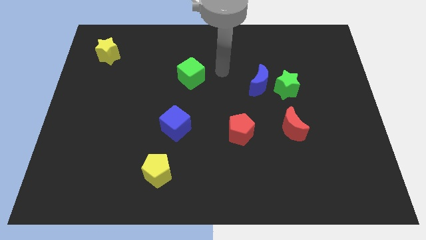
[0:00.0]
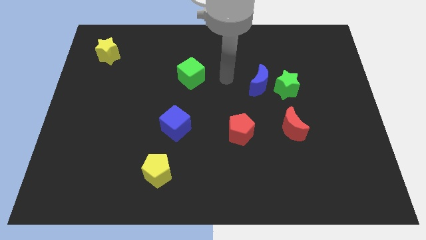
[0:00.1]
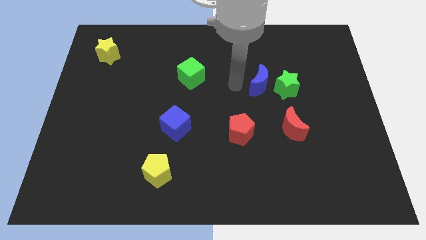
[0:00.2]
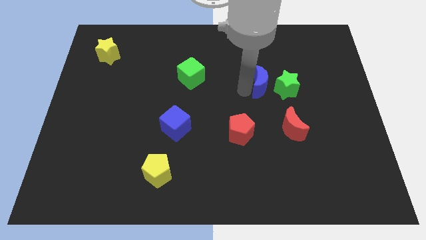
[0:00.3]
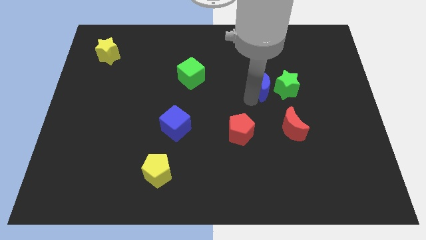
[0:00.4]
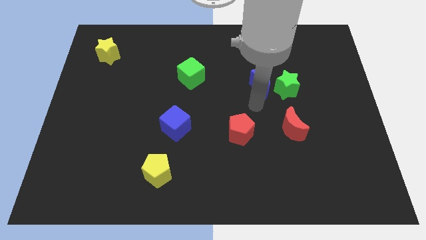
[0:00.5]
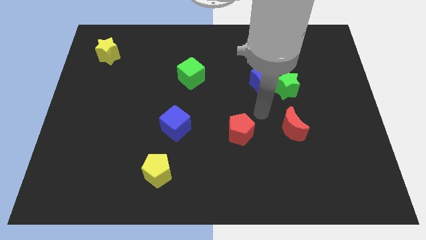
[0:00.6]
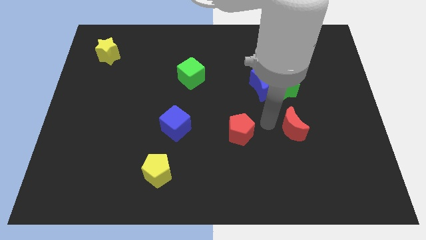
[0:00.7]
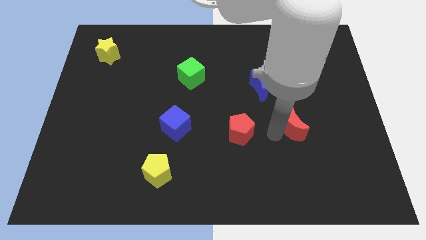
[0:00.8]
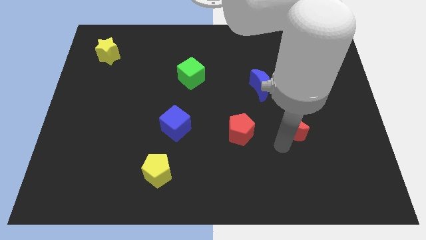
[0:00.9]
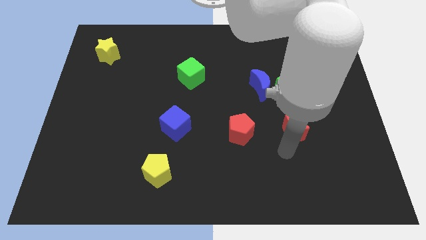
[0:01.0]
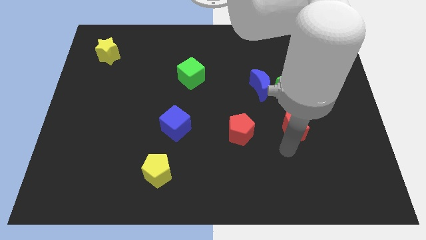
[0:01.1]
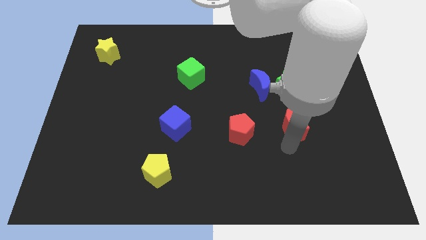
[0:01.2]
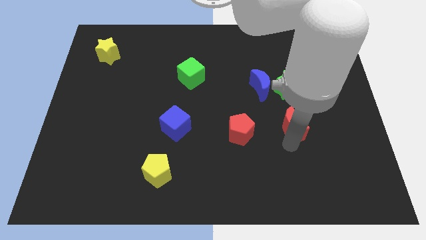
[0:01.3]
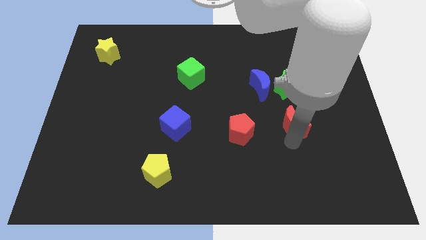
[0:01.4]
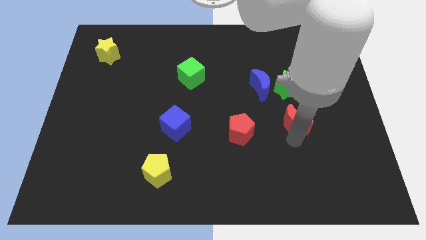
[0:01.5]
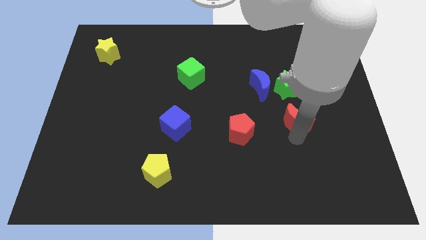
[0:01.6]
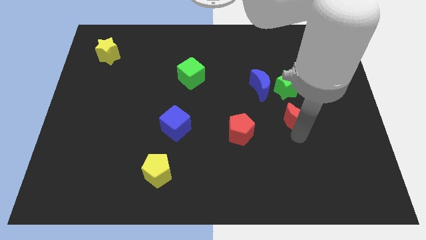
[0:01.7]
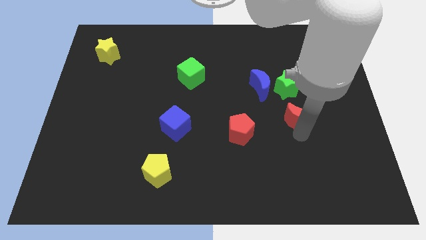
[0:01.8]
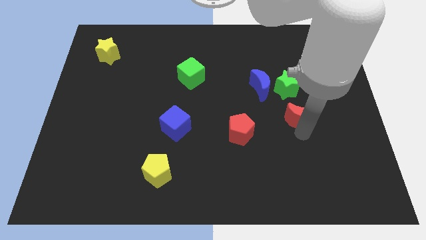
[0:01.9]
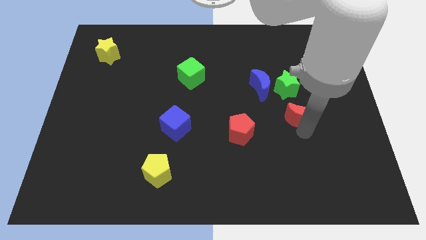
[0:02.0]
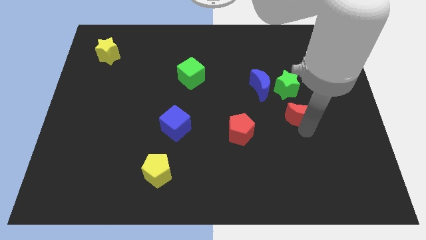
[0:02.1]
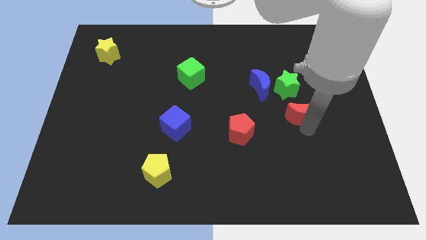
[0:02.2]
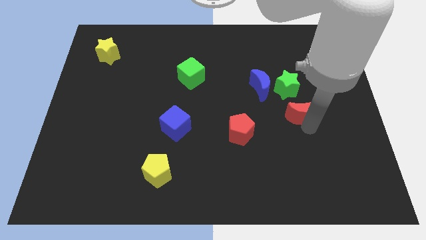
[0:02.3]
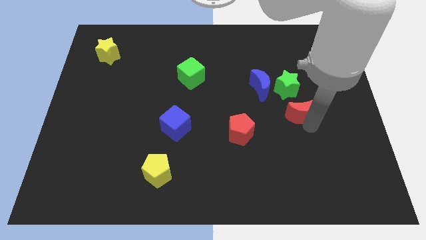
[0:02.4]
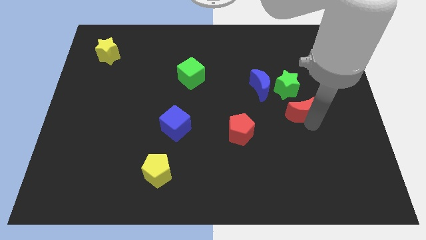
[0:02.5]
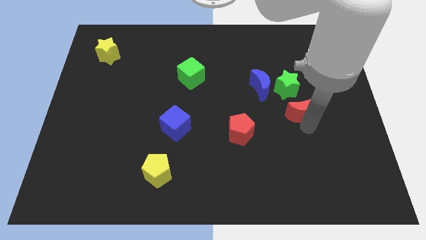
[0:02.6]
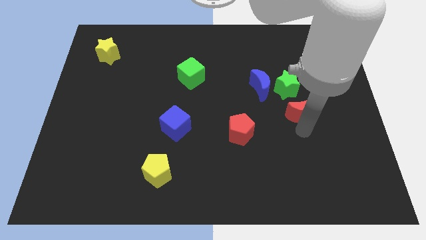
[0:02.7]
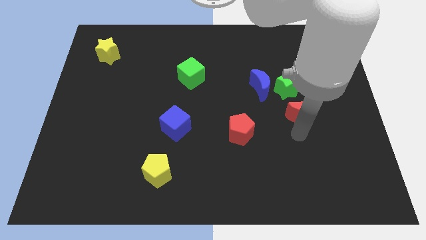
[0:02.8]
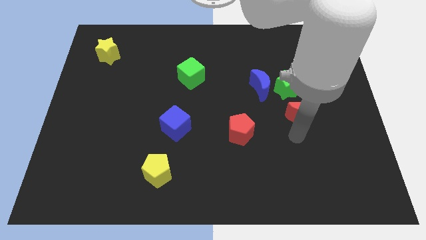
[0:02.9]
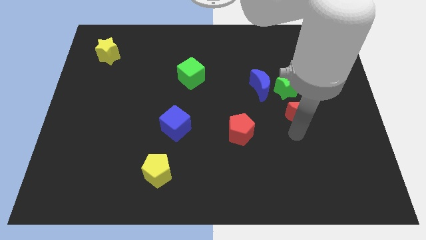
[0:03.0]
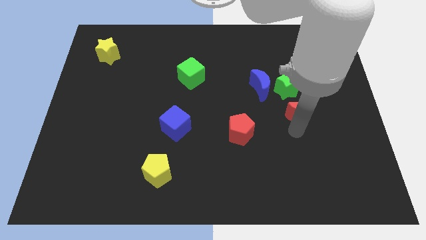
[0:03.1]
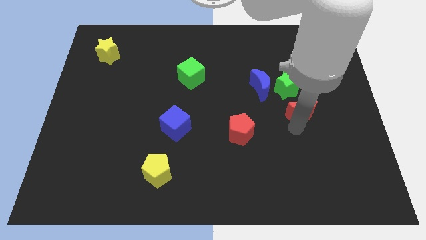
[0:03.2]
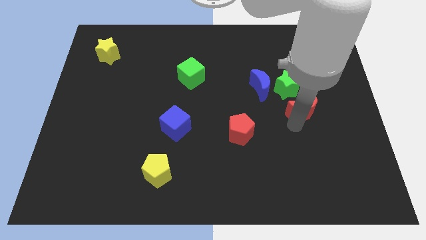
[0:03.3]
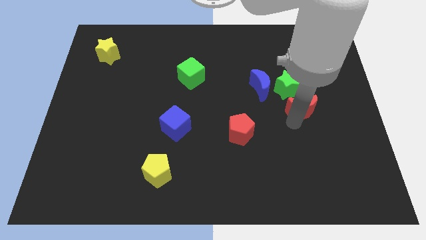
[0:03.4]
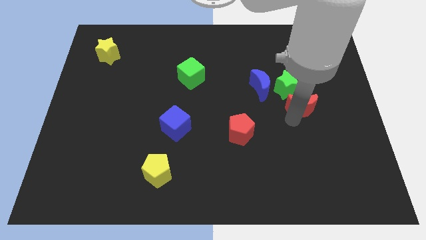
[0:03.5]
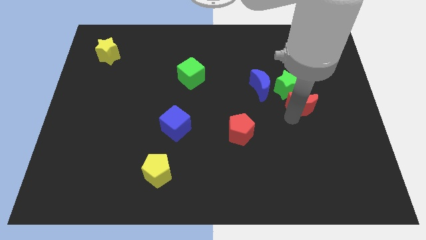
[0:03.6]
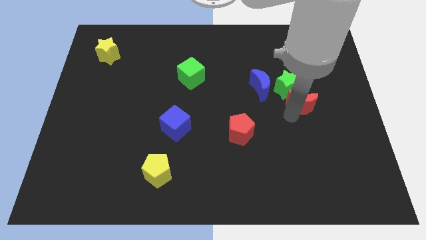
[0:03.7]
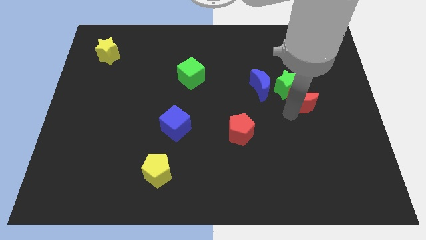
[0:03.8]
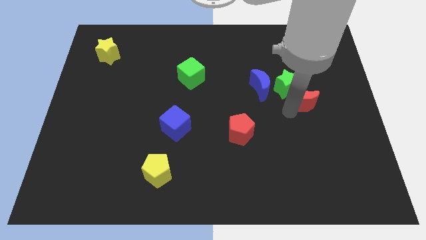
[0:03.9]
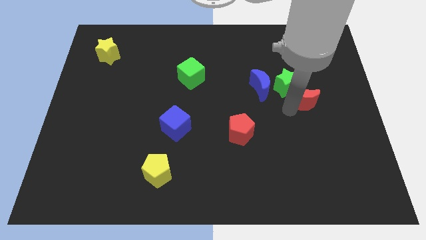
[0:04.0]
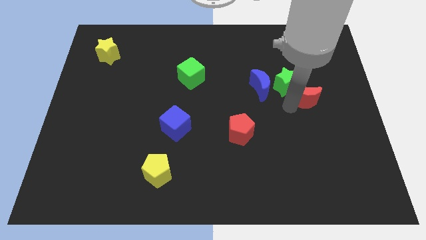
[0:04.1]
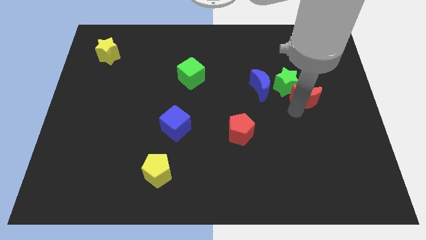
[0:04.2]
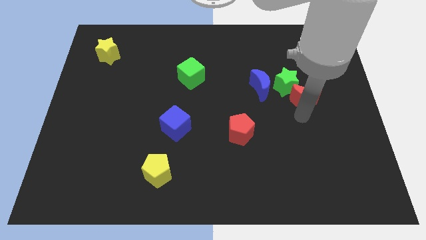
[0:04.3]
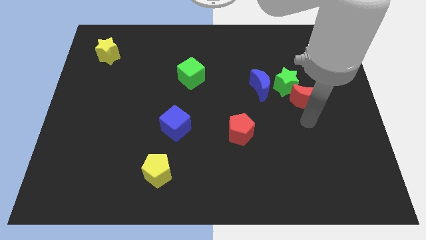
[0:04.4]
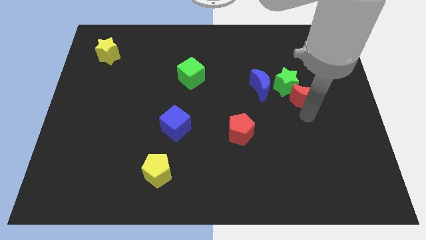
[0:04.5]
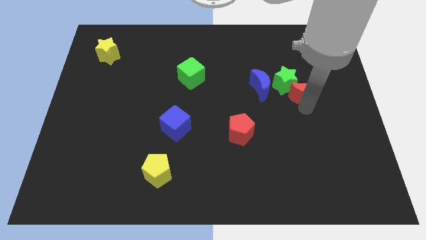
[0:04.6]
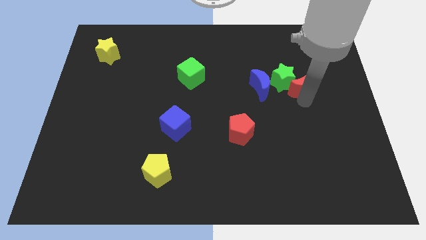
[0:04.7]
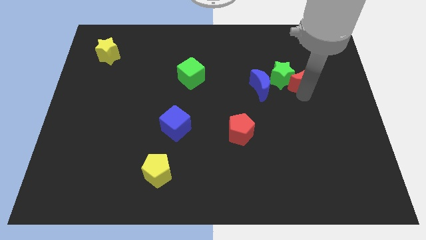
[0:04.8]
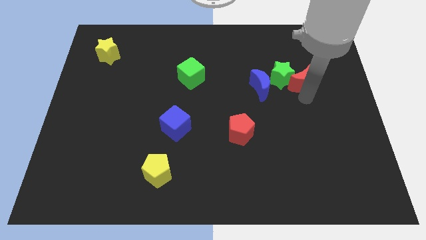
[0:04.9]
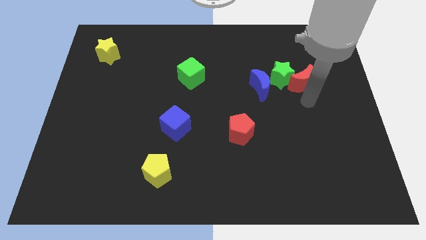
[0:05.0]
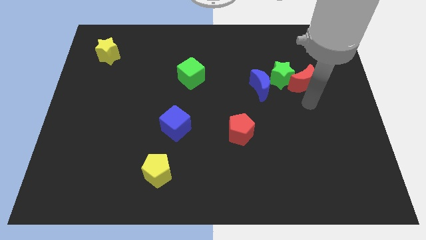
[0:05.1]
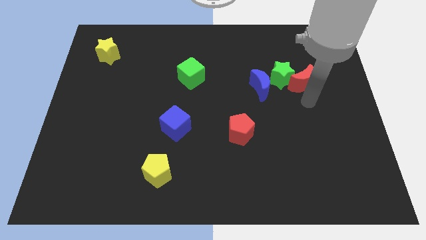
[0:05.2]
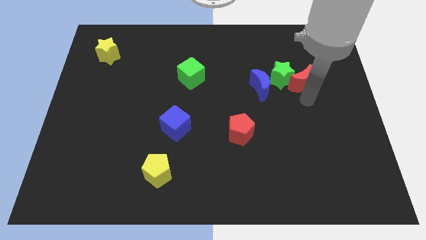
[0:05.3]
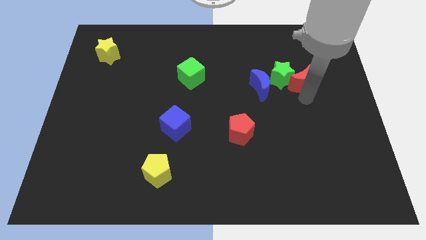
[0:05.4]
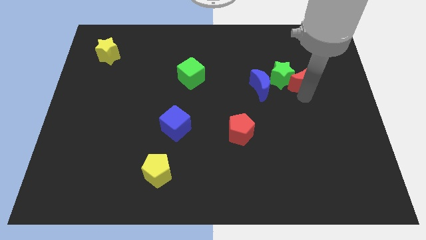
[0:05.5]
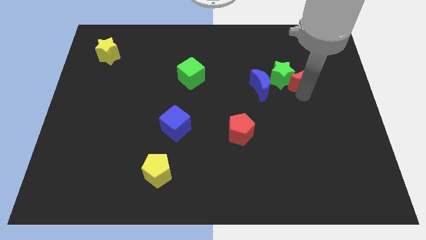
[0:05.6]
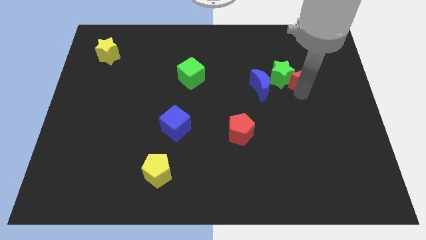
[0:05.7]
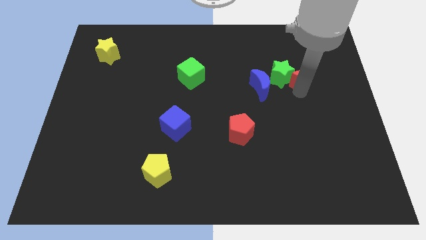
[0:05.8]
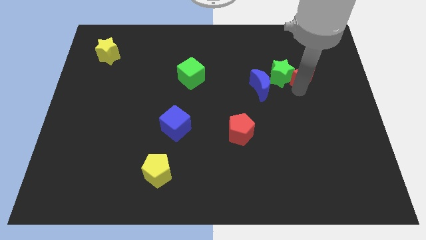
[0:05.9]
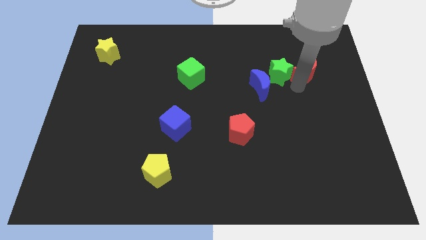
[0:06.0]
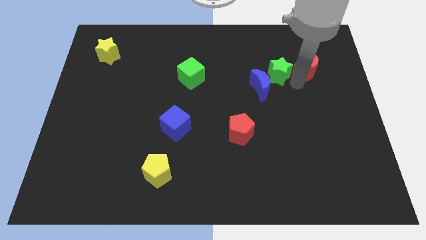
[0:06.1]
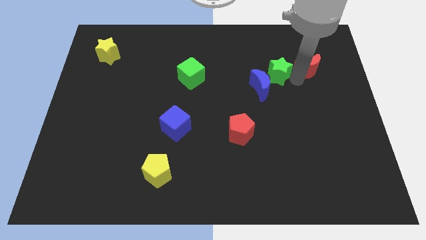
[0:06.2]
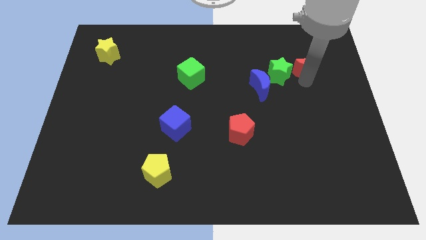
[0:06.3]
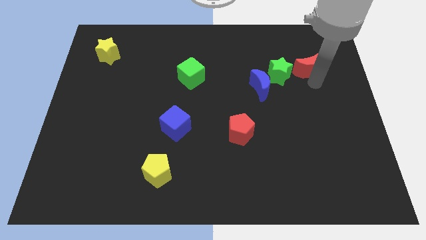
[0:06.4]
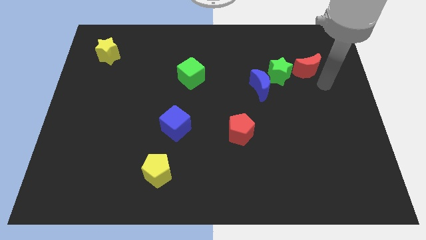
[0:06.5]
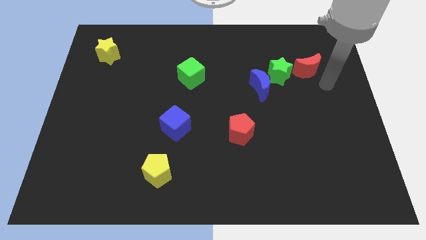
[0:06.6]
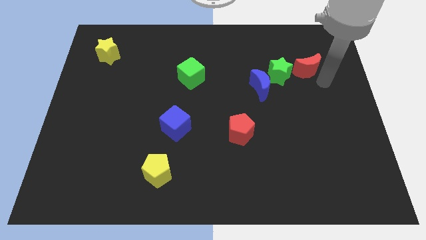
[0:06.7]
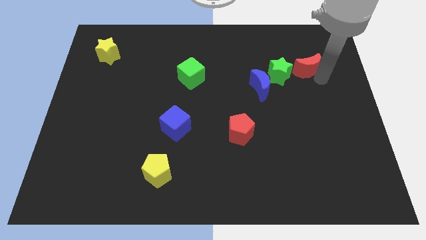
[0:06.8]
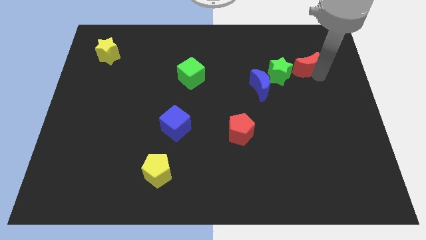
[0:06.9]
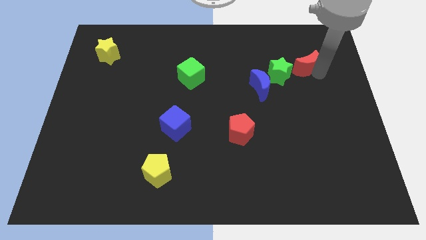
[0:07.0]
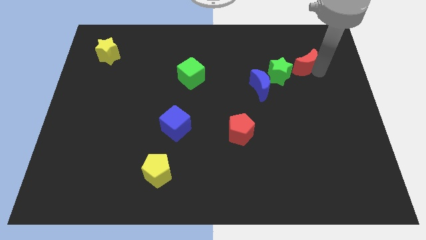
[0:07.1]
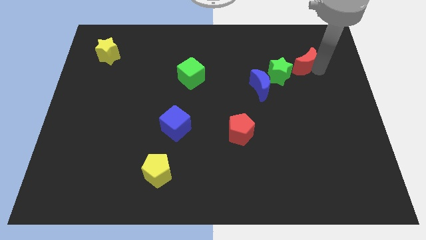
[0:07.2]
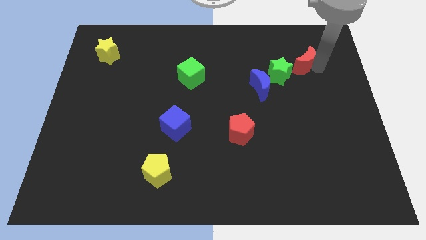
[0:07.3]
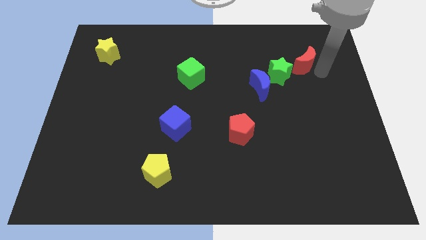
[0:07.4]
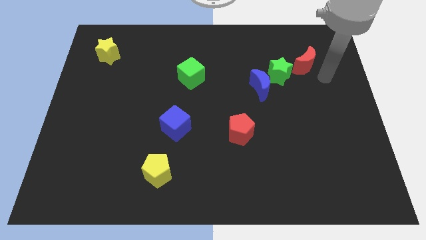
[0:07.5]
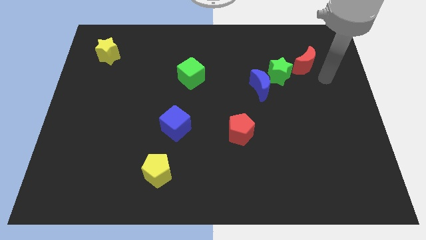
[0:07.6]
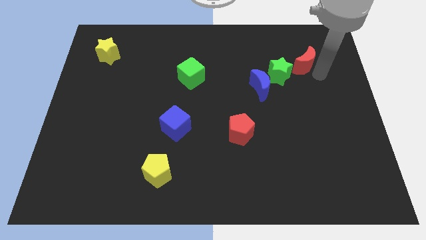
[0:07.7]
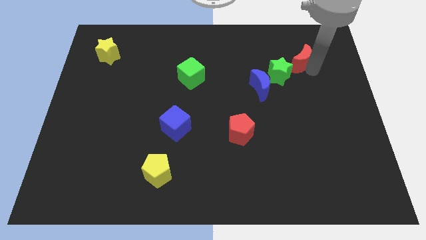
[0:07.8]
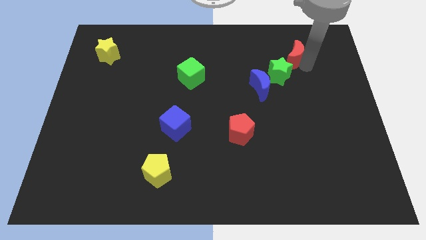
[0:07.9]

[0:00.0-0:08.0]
move the red moon to the top of the green star
